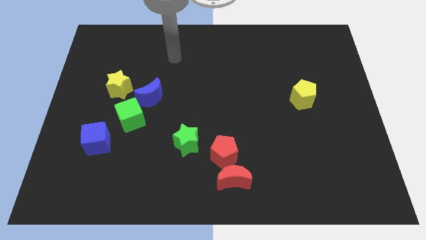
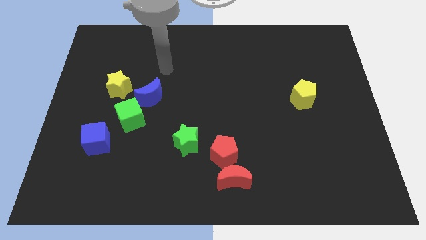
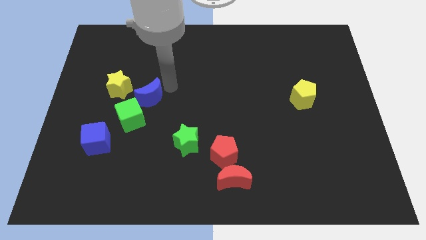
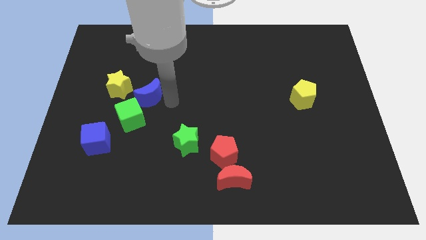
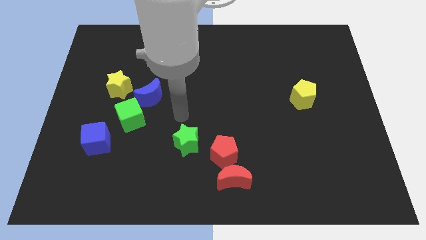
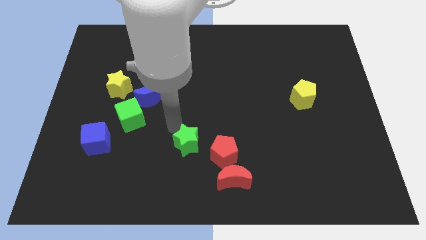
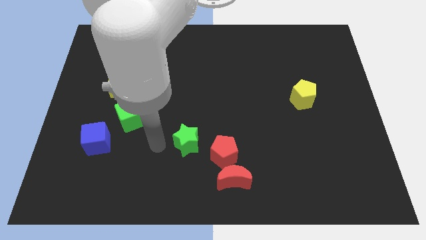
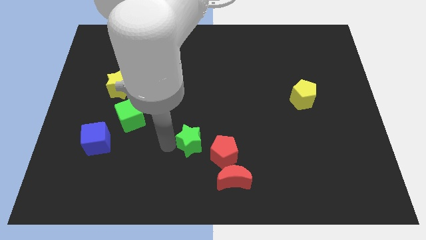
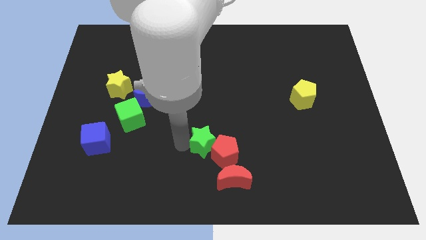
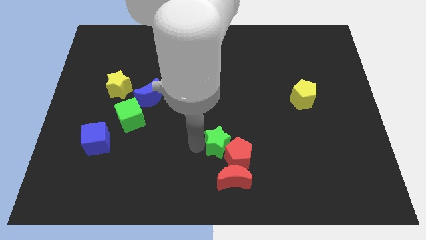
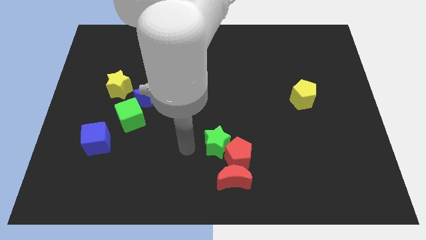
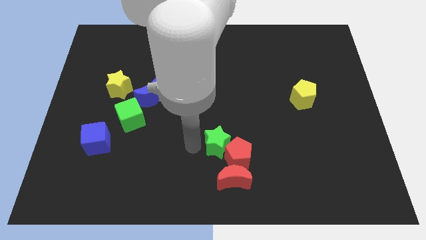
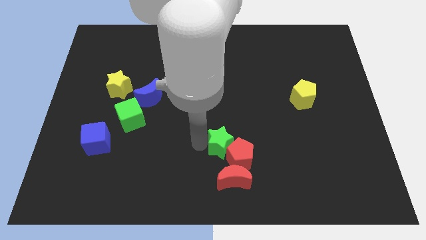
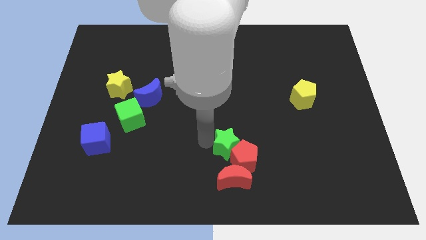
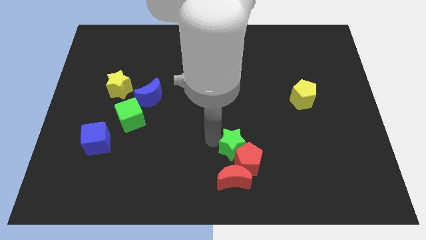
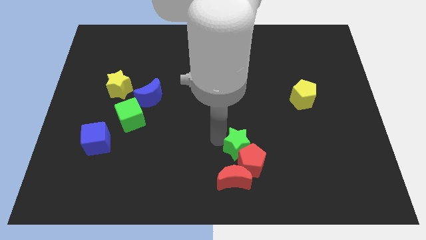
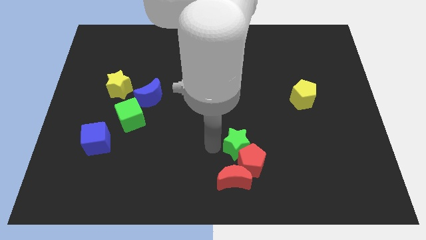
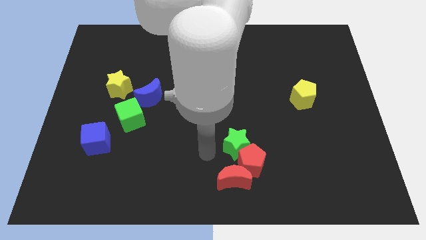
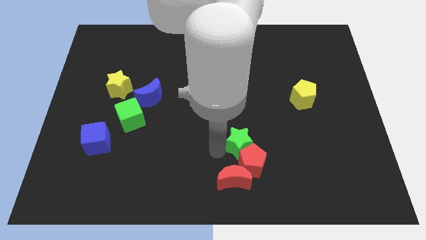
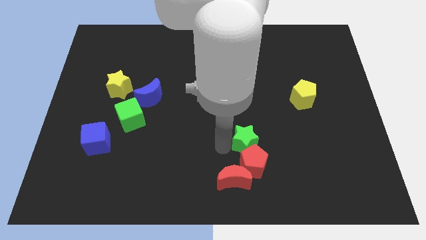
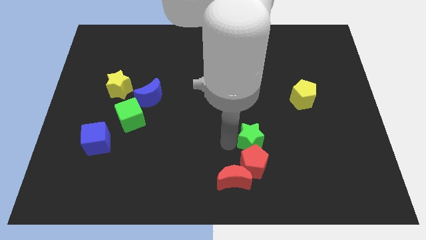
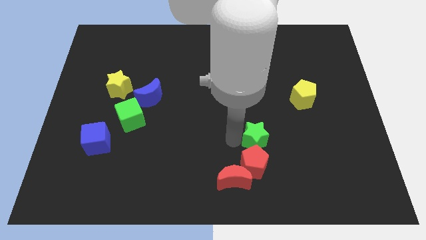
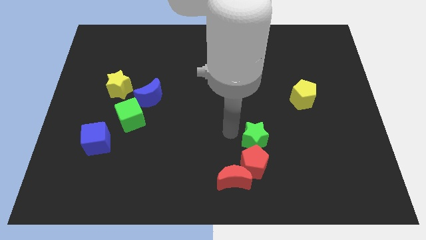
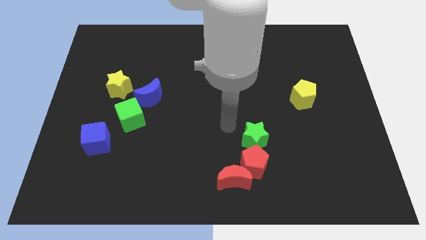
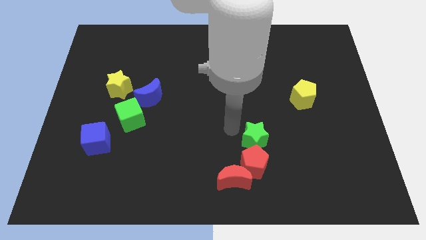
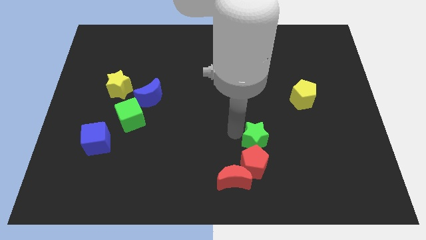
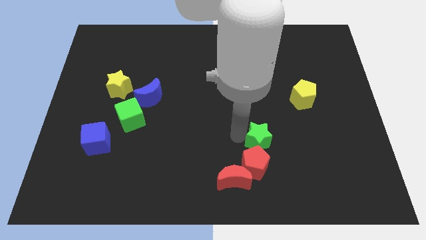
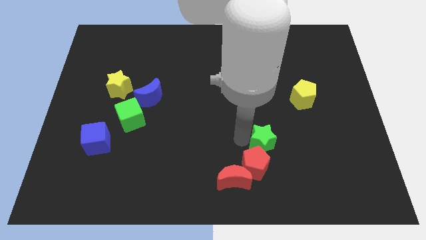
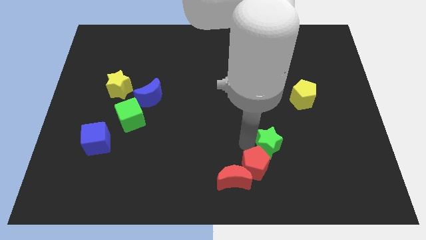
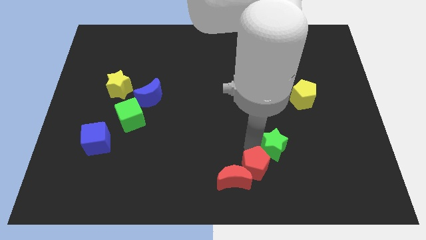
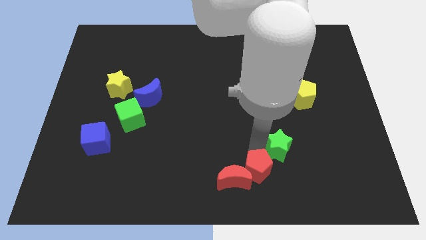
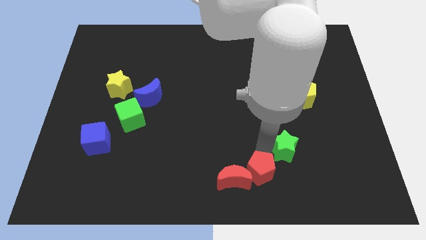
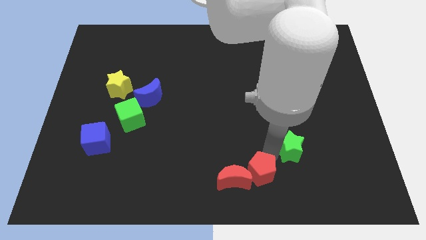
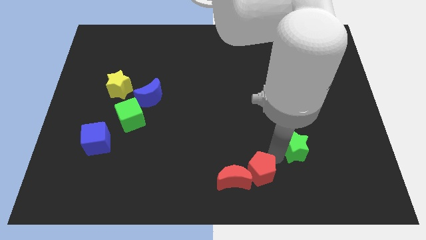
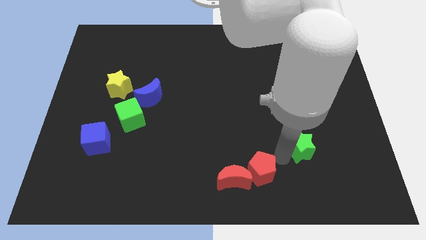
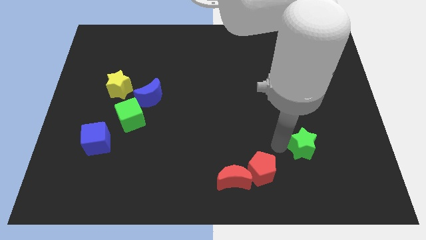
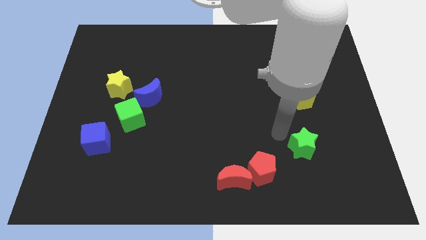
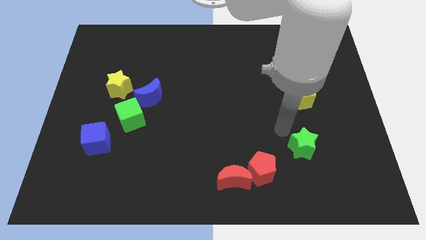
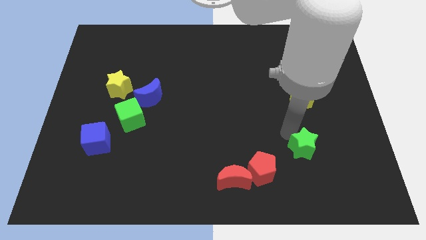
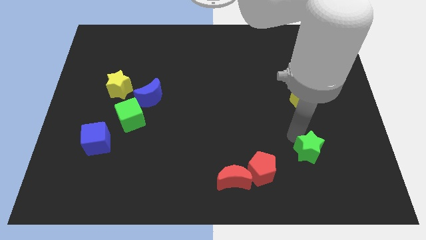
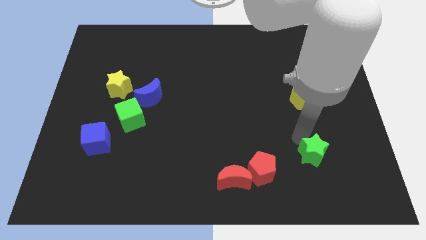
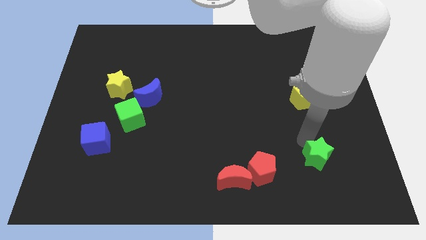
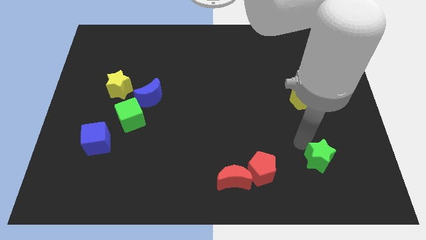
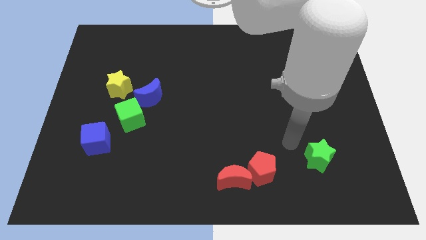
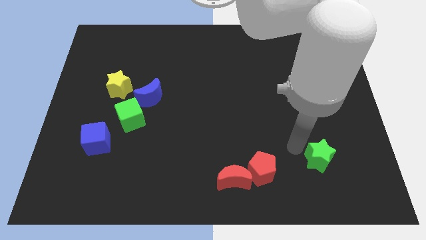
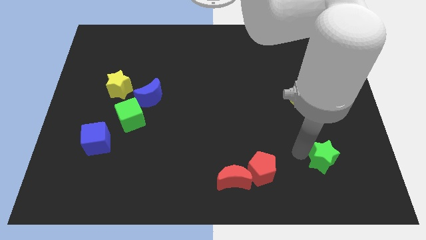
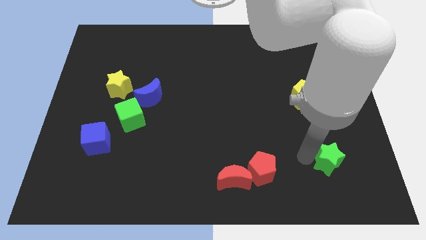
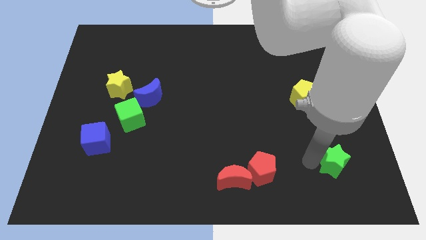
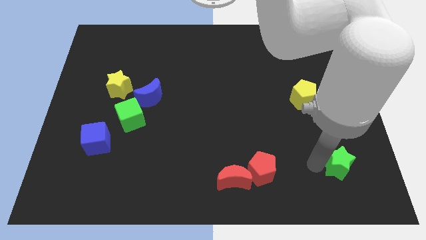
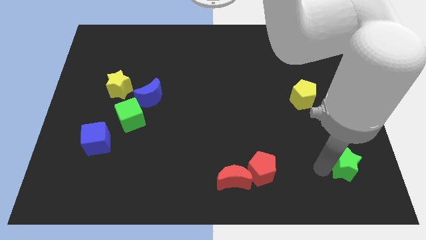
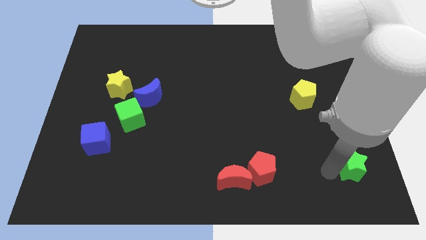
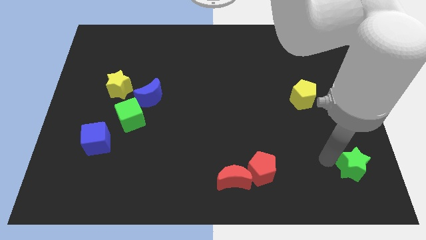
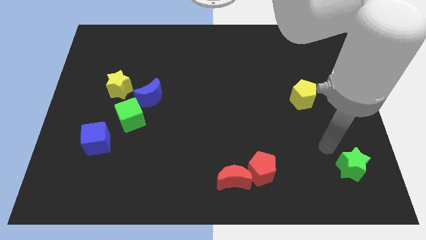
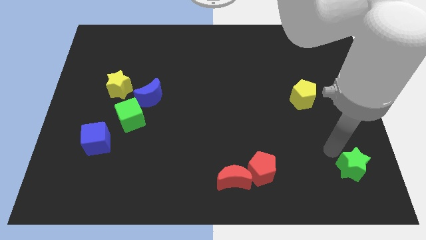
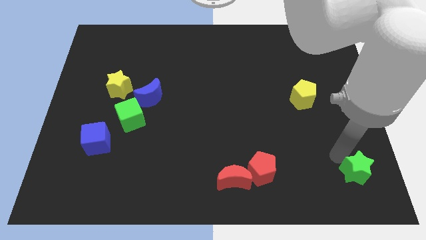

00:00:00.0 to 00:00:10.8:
slide the green star to the bottom right of the board

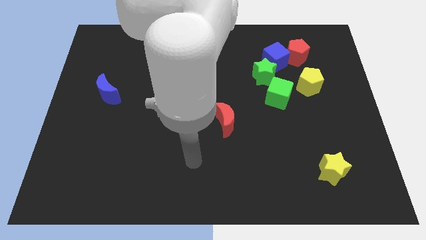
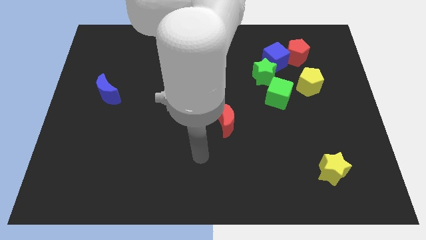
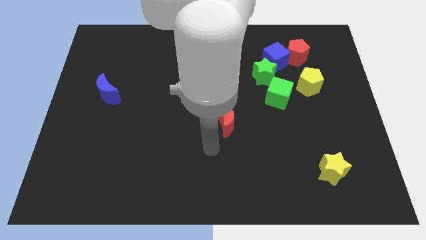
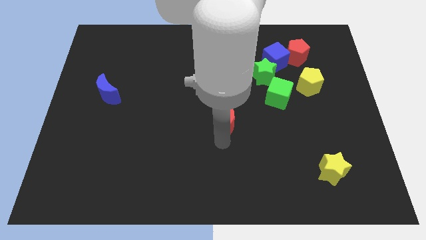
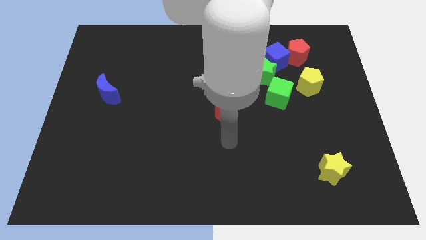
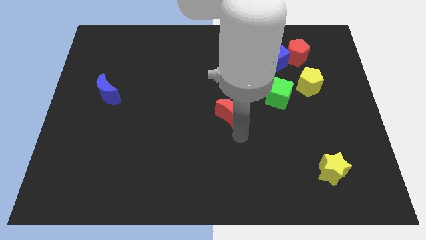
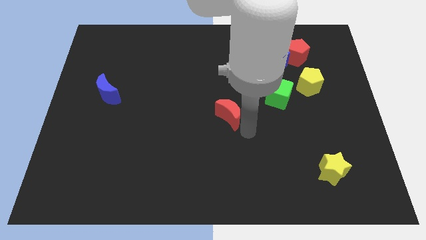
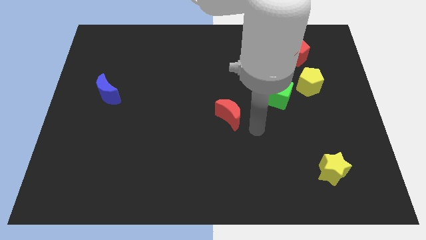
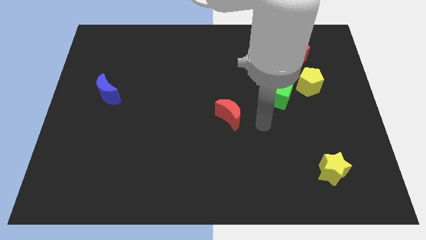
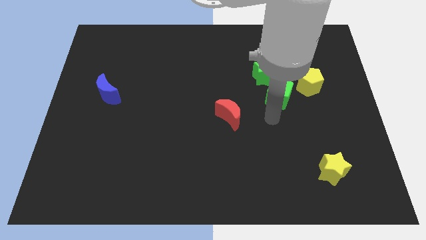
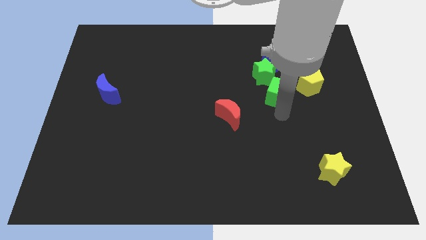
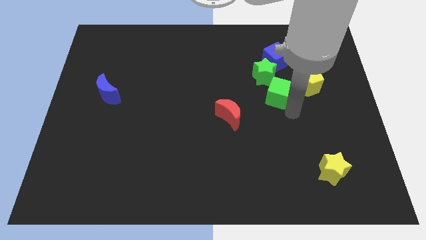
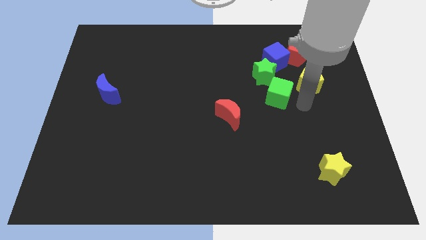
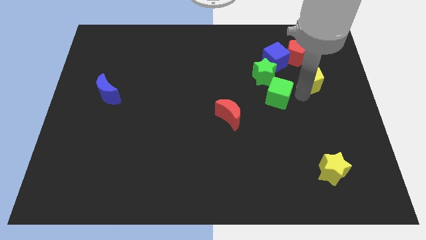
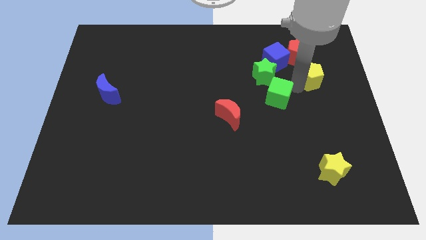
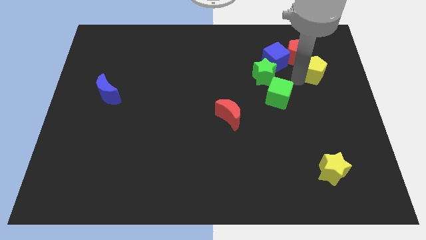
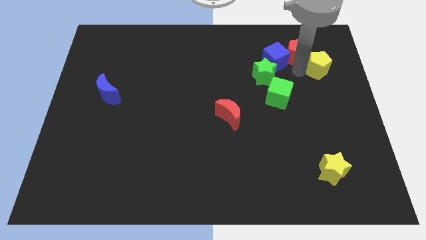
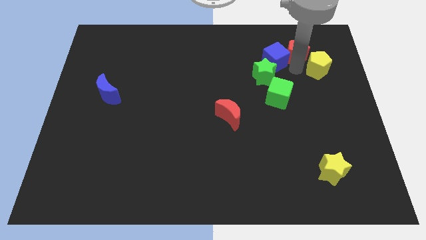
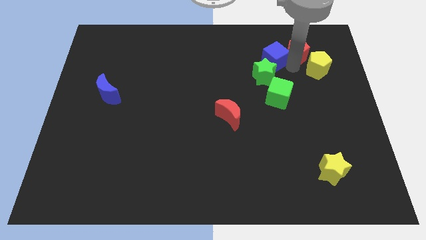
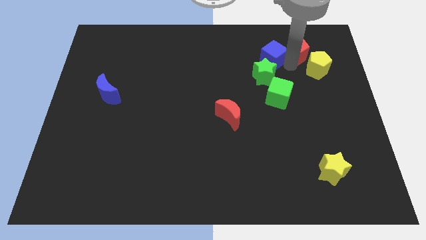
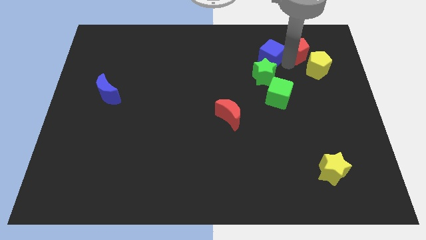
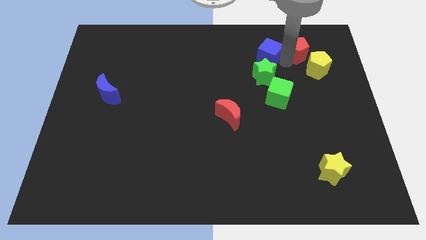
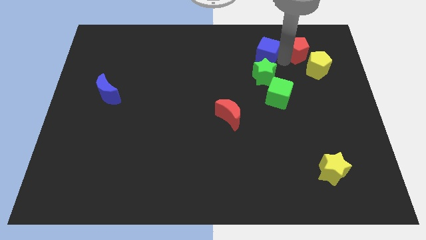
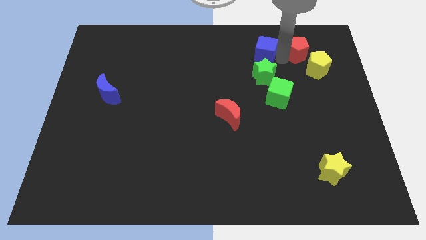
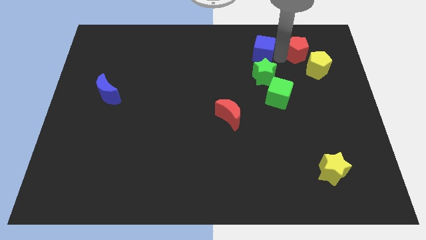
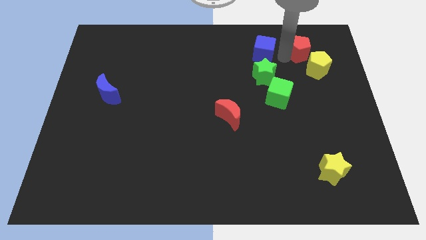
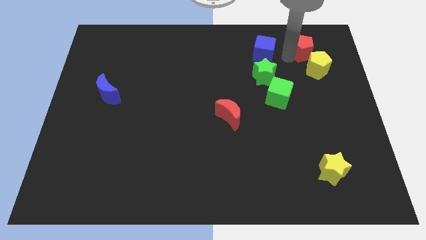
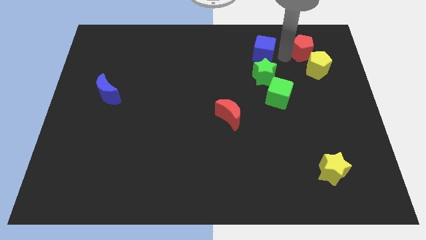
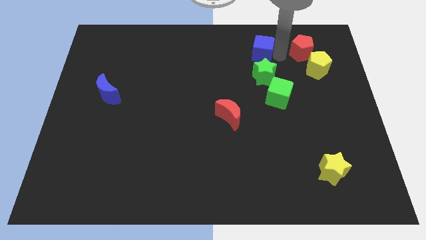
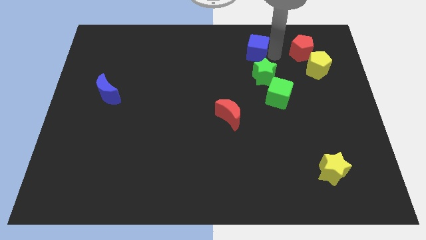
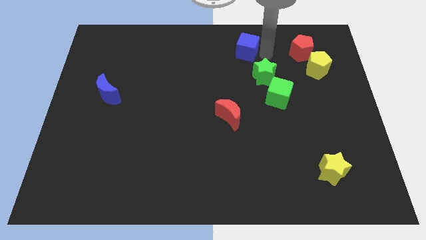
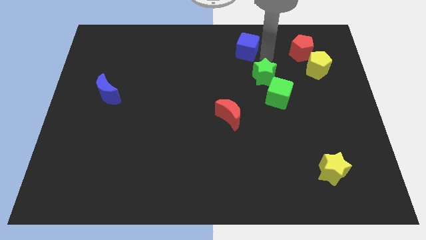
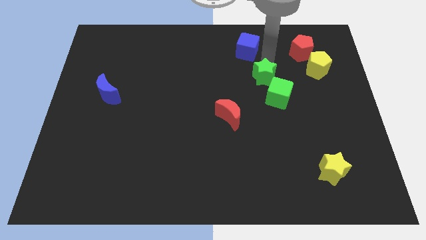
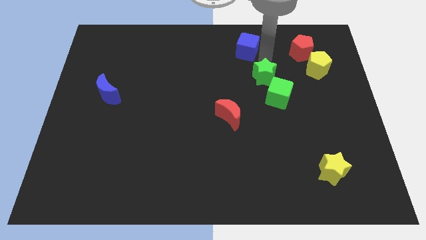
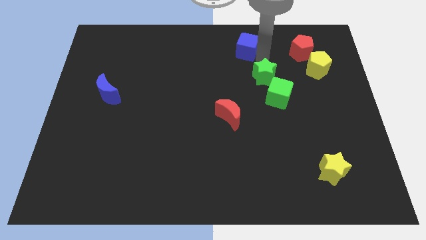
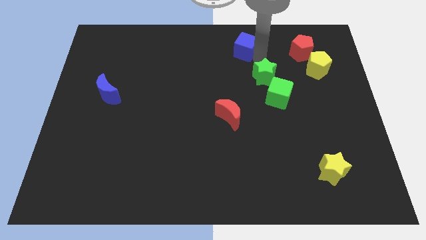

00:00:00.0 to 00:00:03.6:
move the blue cube to the top side
